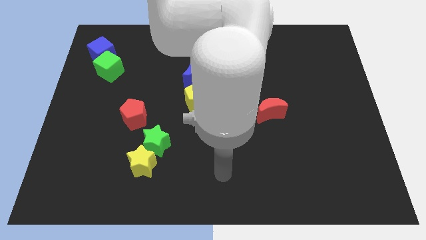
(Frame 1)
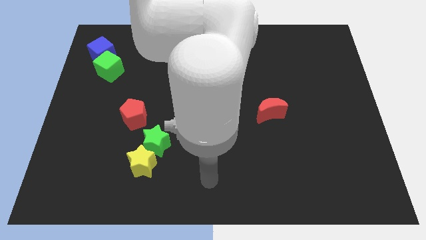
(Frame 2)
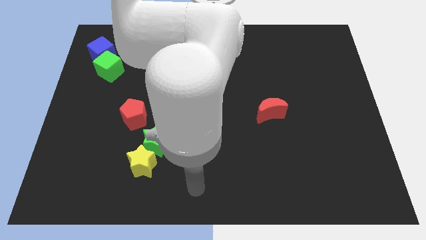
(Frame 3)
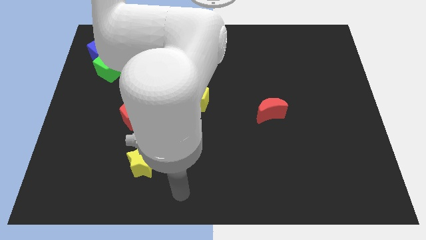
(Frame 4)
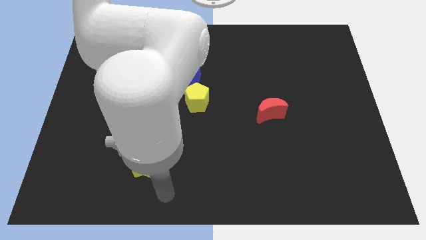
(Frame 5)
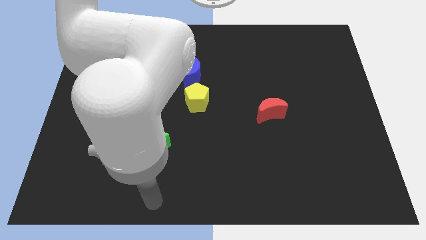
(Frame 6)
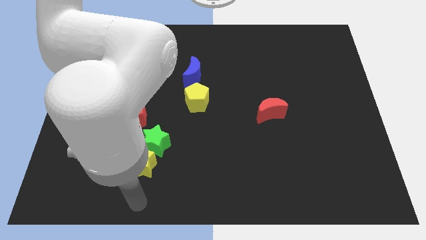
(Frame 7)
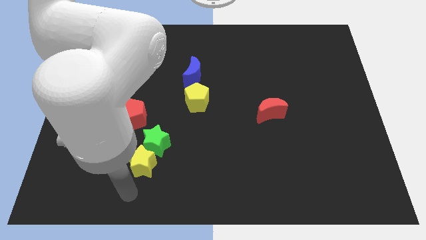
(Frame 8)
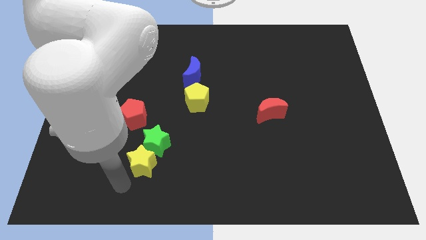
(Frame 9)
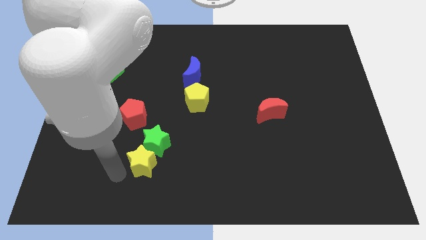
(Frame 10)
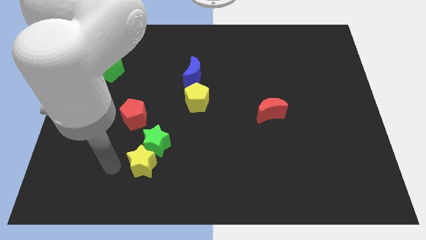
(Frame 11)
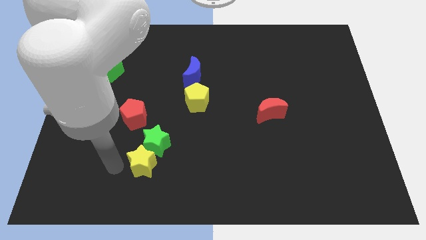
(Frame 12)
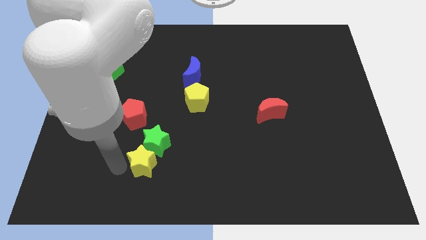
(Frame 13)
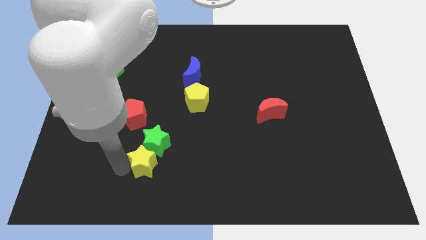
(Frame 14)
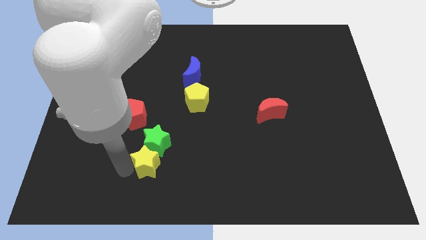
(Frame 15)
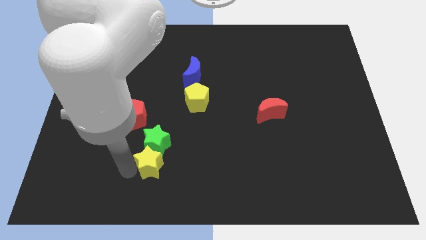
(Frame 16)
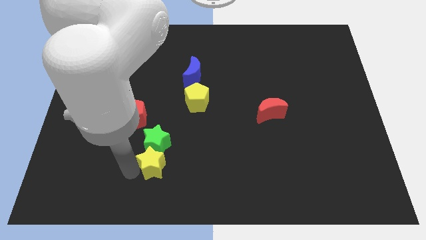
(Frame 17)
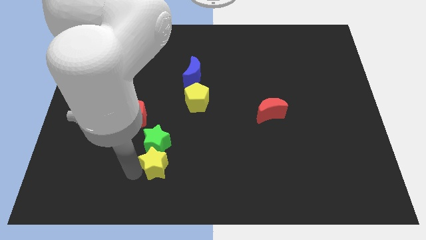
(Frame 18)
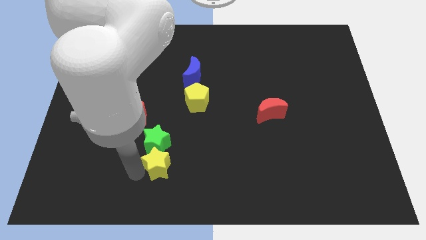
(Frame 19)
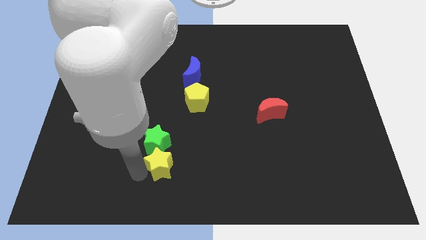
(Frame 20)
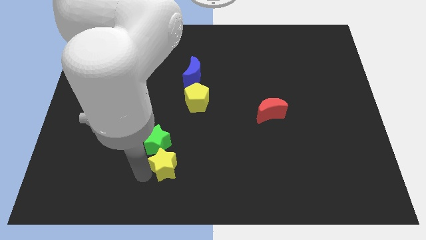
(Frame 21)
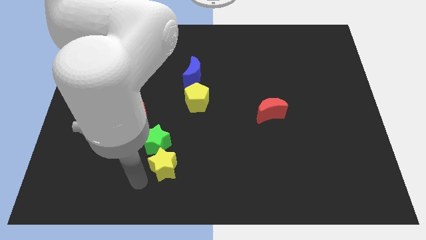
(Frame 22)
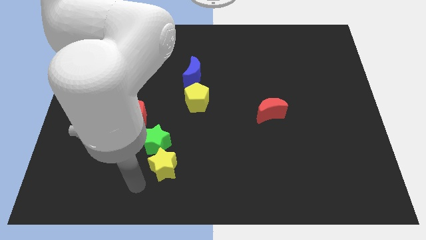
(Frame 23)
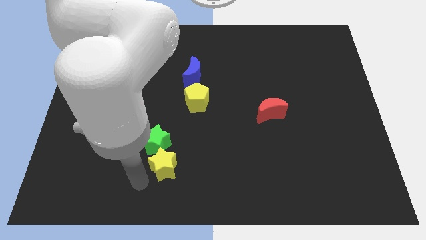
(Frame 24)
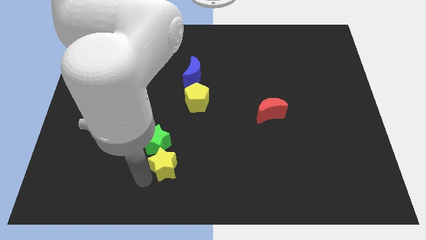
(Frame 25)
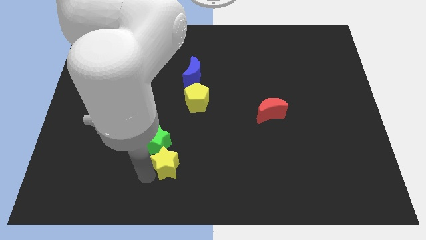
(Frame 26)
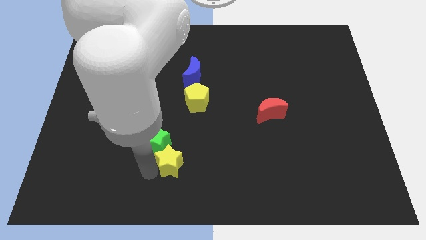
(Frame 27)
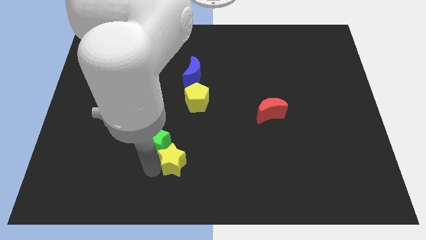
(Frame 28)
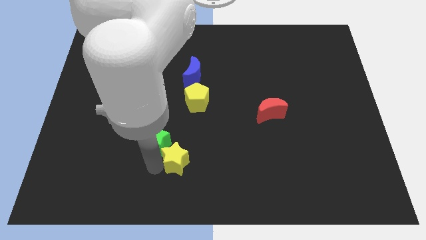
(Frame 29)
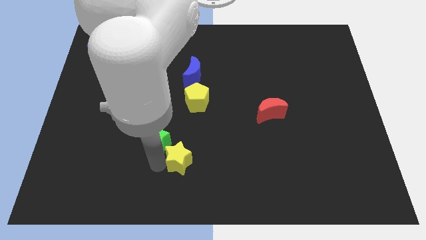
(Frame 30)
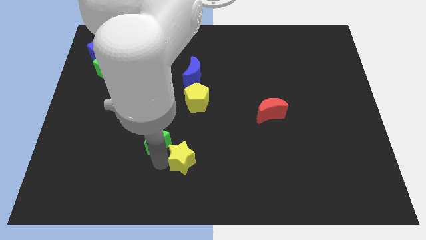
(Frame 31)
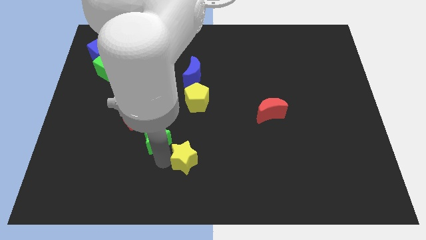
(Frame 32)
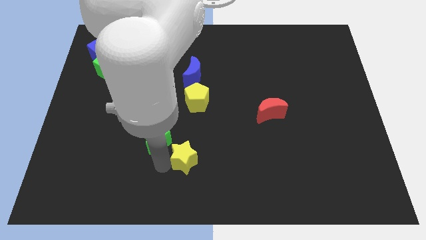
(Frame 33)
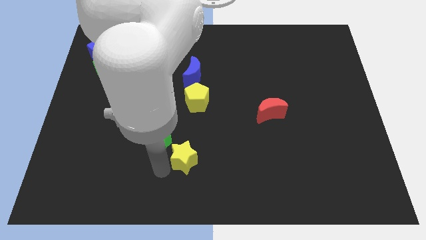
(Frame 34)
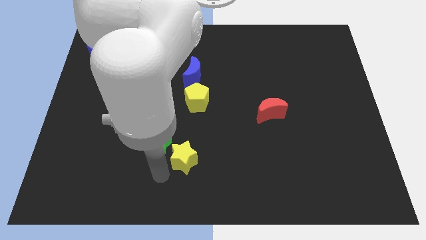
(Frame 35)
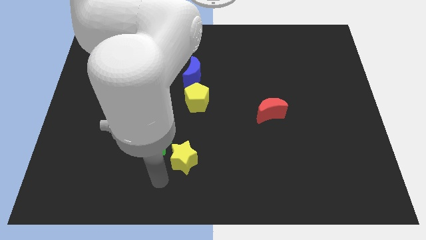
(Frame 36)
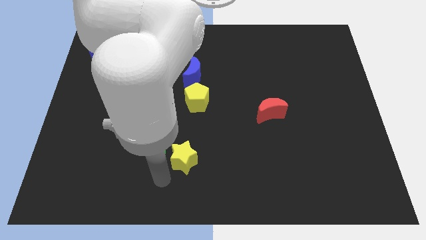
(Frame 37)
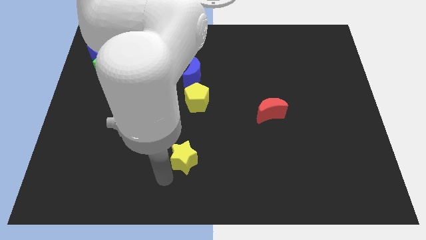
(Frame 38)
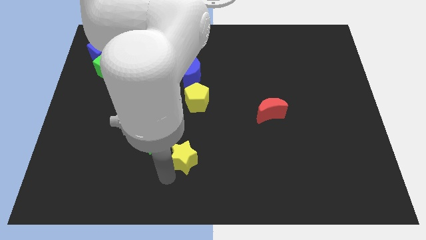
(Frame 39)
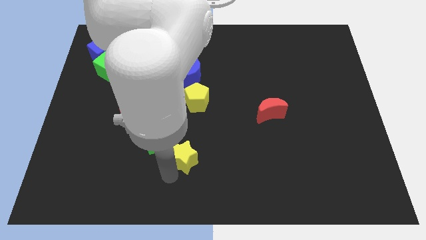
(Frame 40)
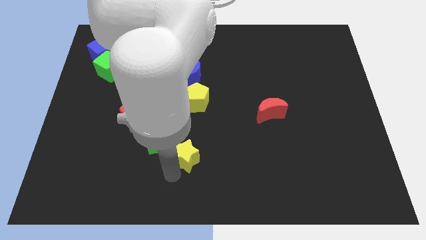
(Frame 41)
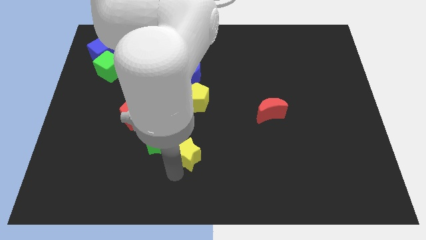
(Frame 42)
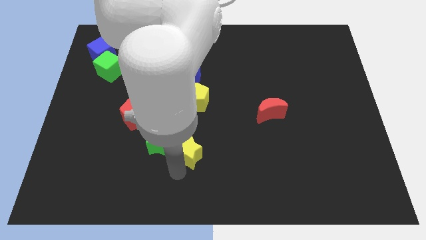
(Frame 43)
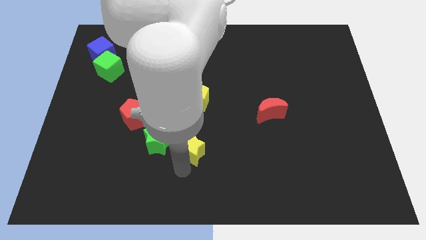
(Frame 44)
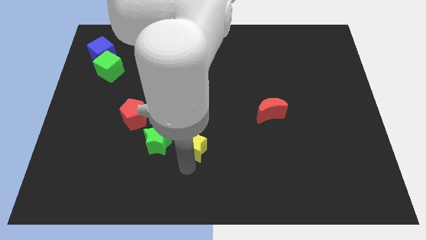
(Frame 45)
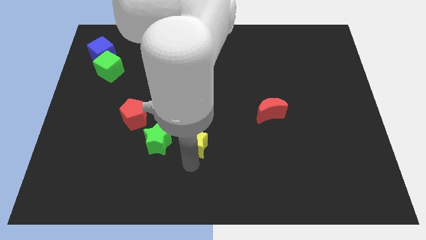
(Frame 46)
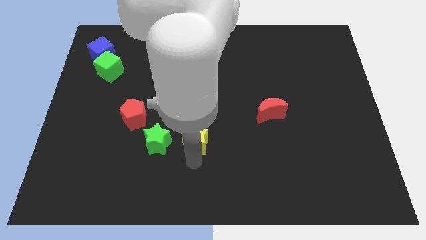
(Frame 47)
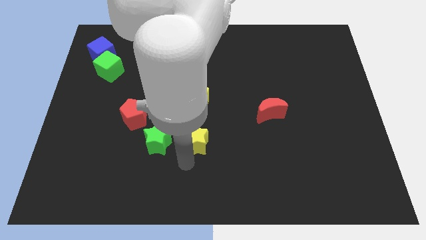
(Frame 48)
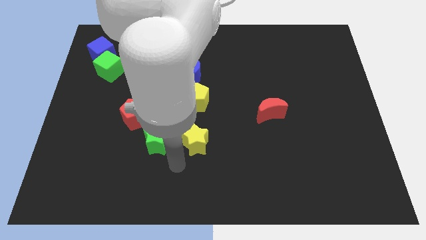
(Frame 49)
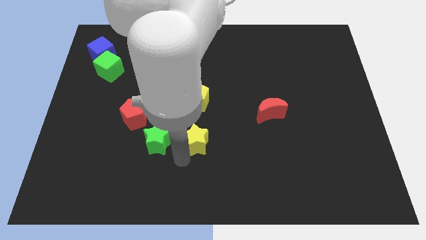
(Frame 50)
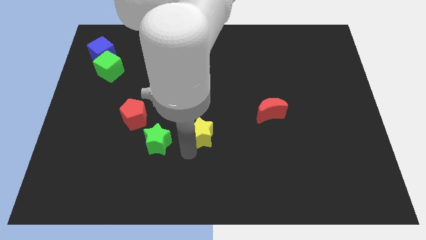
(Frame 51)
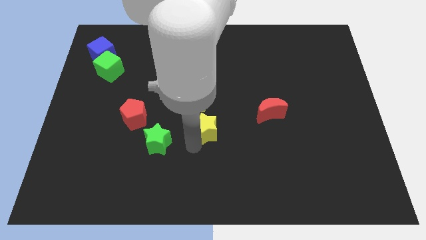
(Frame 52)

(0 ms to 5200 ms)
slide the yellow star to the bottom right of the yellow pentagon

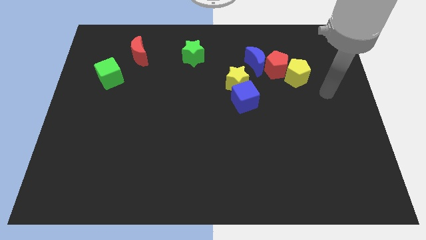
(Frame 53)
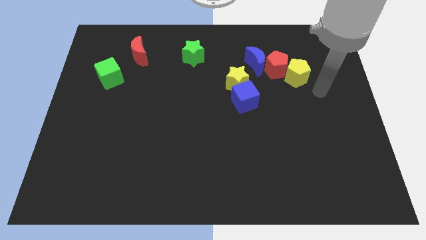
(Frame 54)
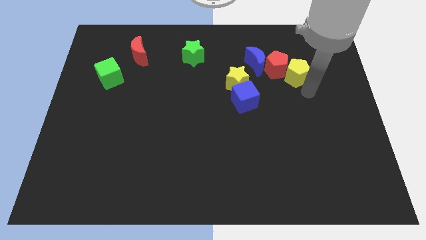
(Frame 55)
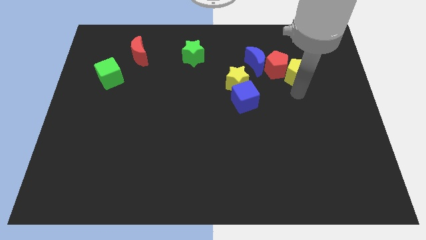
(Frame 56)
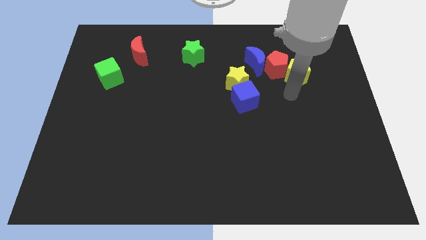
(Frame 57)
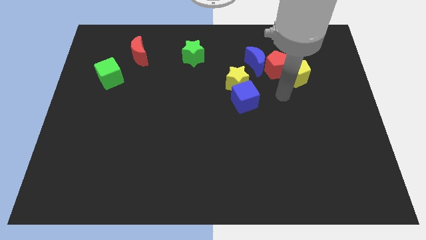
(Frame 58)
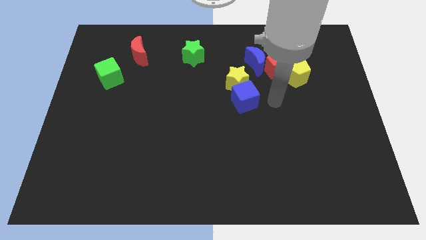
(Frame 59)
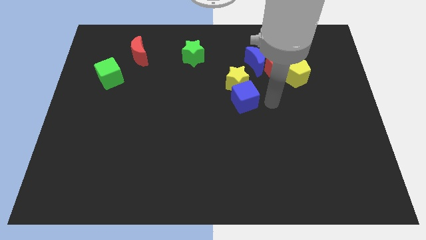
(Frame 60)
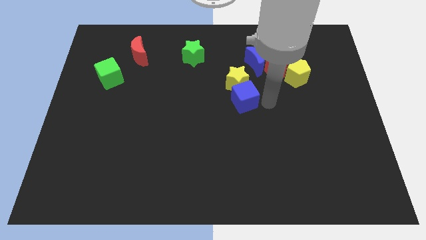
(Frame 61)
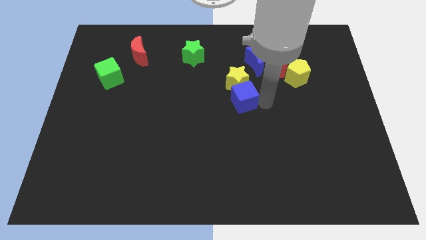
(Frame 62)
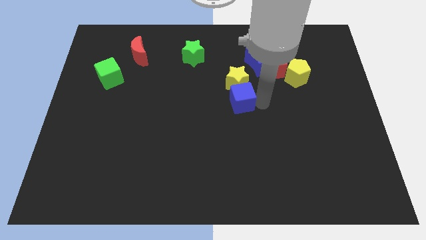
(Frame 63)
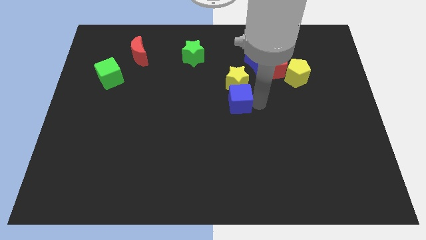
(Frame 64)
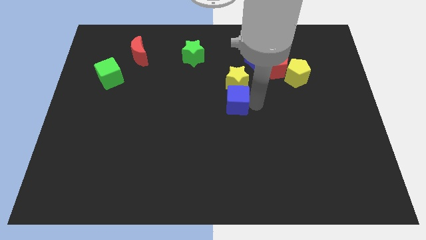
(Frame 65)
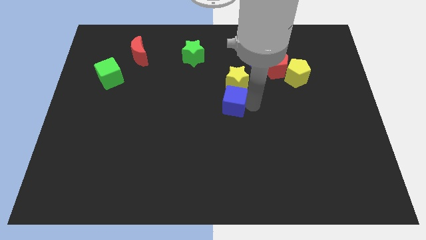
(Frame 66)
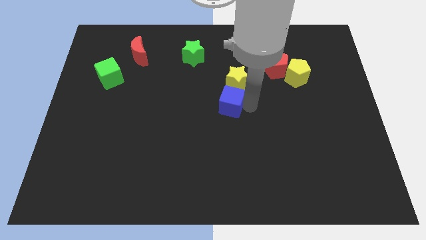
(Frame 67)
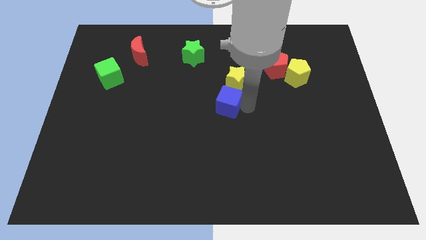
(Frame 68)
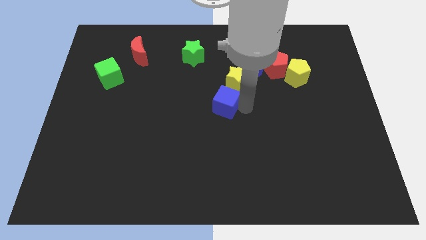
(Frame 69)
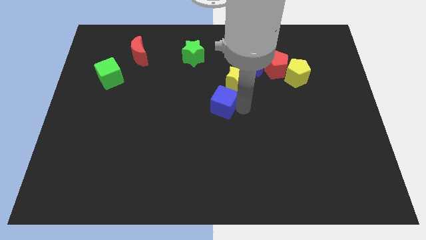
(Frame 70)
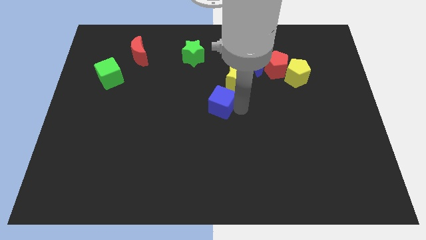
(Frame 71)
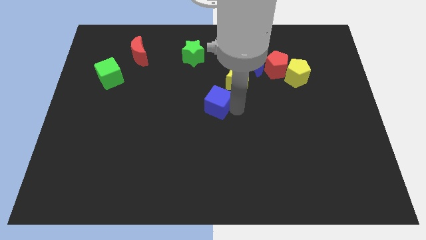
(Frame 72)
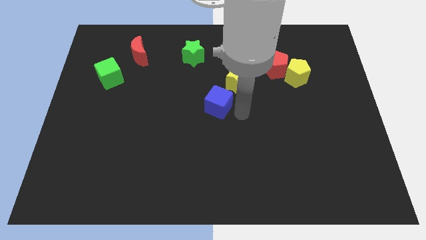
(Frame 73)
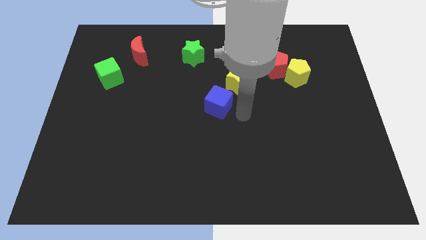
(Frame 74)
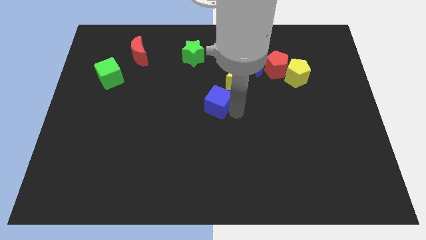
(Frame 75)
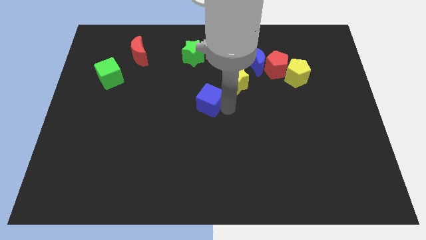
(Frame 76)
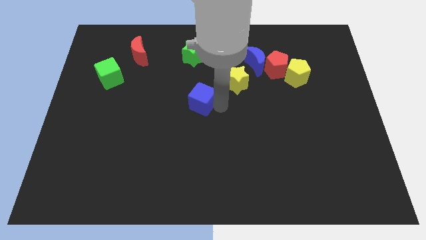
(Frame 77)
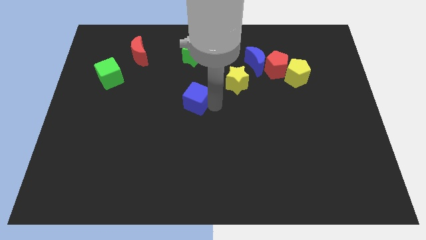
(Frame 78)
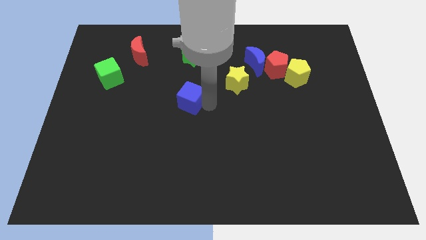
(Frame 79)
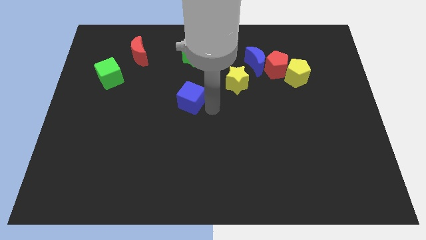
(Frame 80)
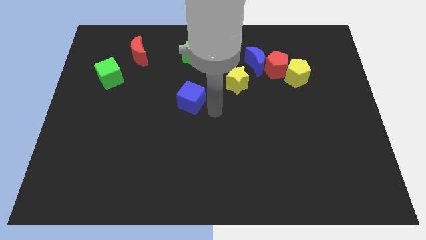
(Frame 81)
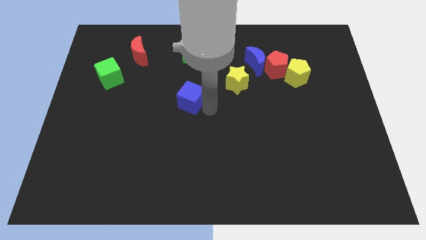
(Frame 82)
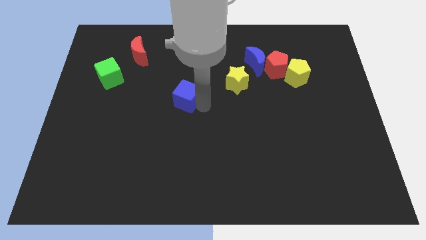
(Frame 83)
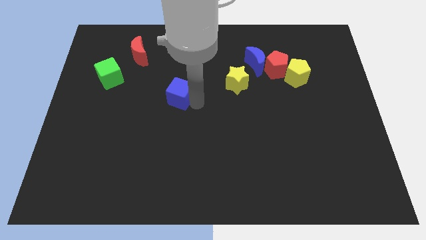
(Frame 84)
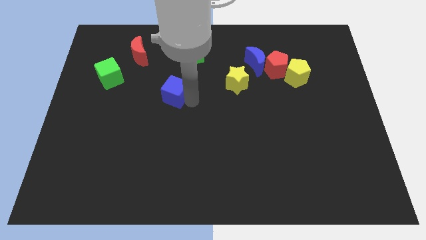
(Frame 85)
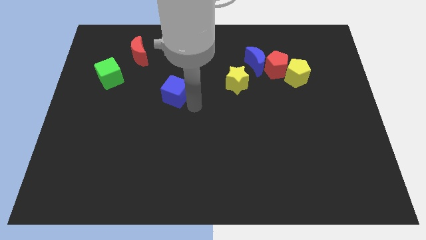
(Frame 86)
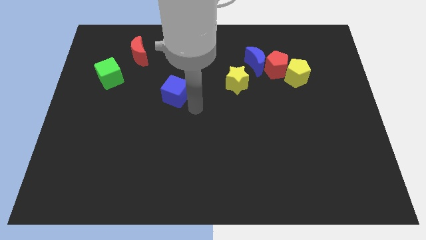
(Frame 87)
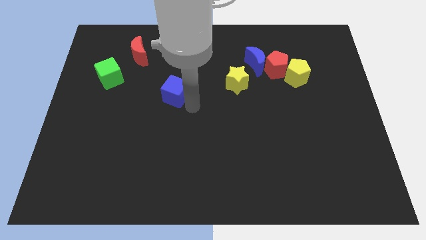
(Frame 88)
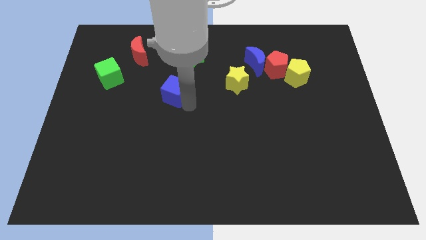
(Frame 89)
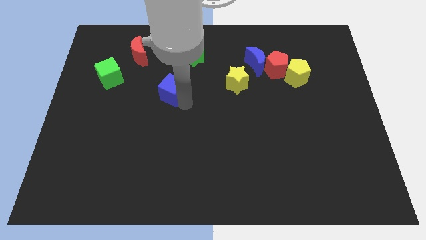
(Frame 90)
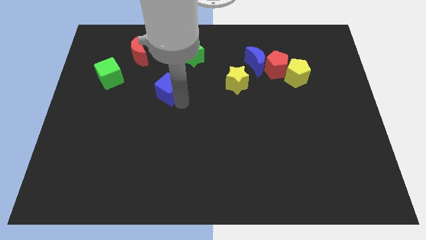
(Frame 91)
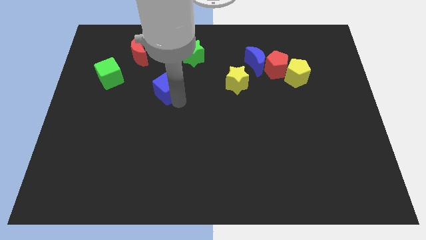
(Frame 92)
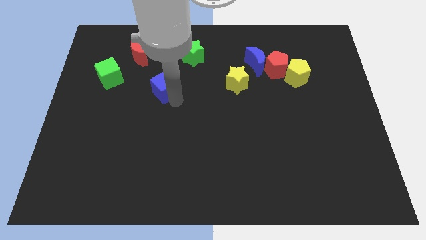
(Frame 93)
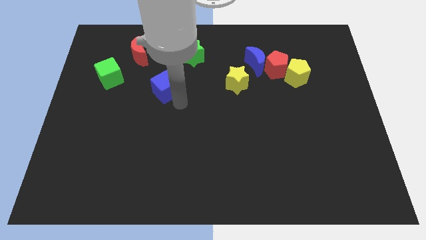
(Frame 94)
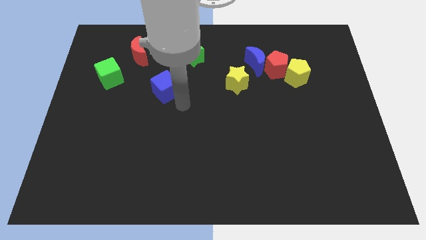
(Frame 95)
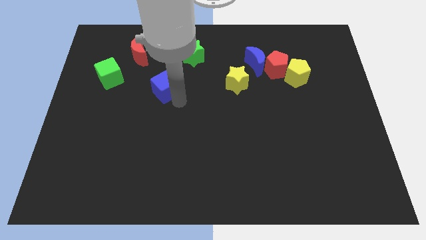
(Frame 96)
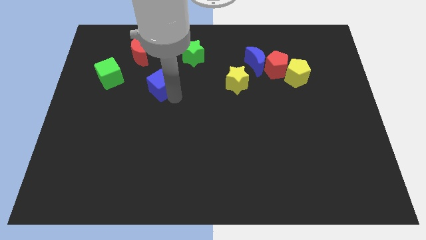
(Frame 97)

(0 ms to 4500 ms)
move the blue cube to the right of the green cube
